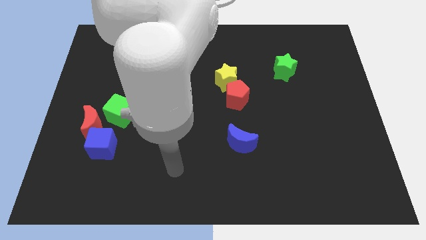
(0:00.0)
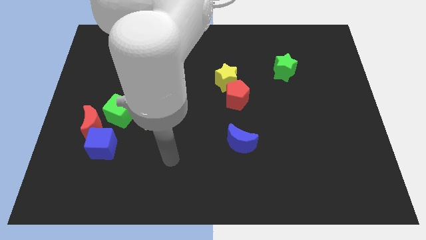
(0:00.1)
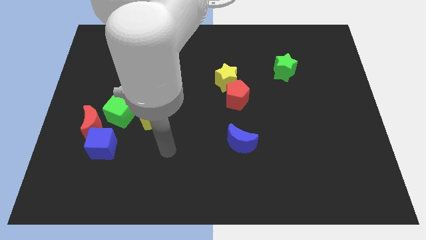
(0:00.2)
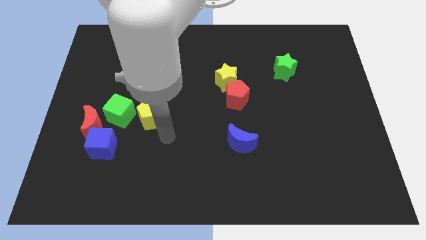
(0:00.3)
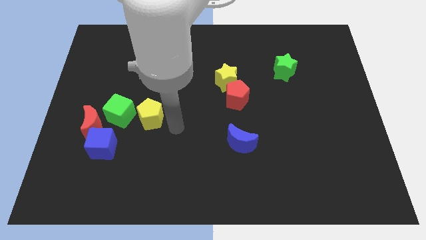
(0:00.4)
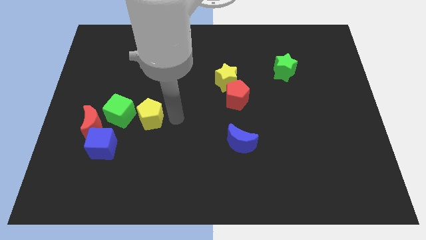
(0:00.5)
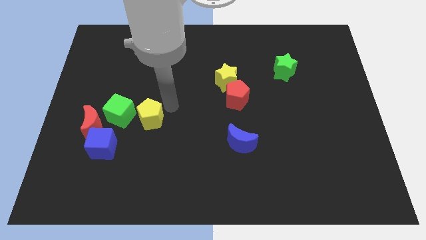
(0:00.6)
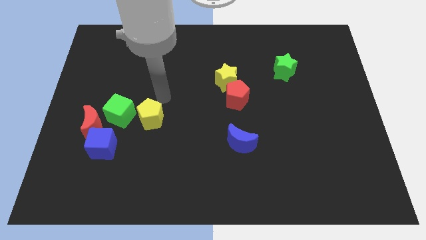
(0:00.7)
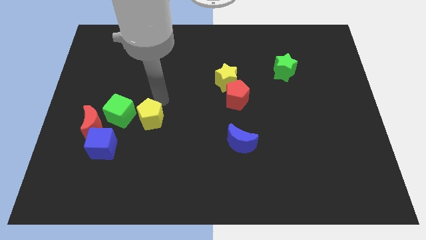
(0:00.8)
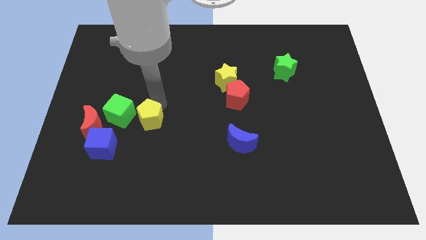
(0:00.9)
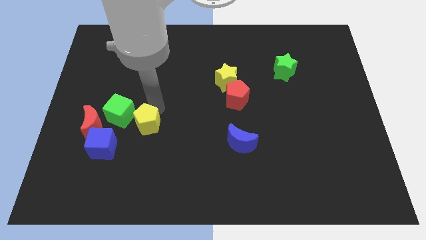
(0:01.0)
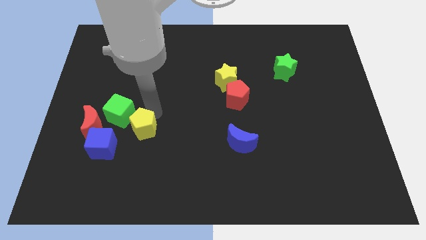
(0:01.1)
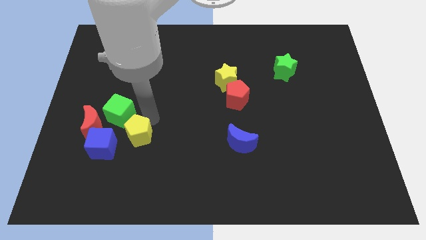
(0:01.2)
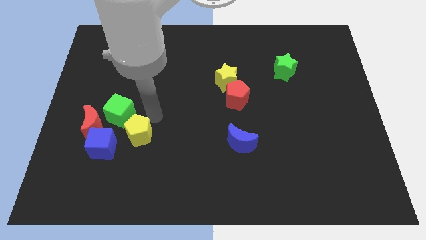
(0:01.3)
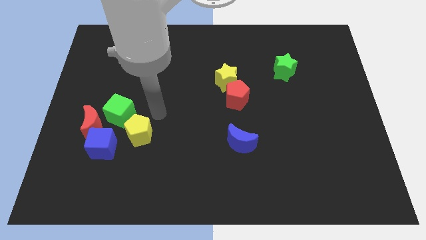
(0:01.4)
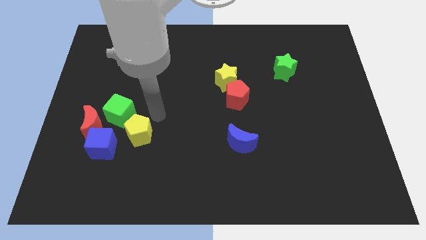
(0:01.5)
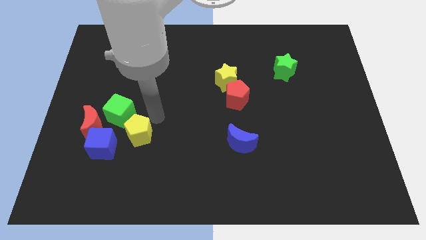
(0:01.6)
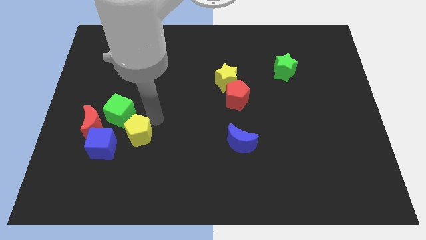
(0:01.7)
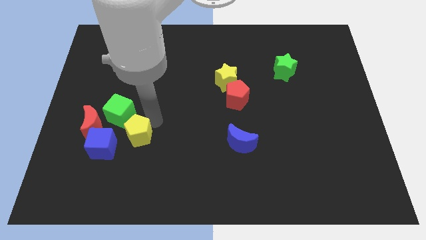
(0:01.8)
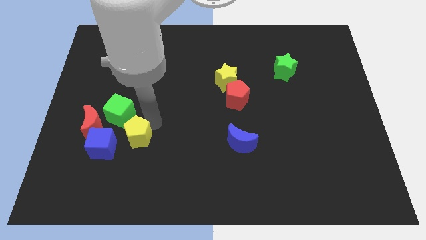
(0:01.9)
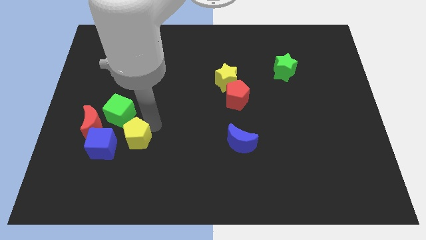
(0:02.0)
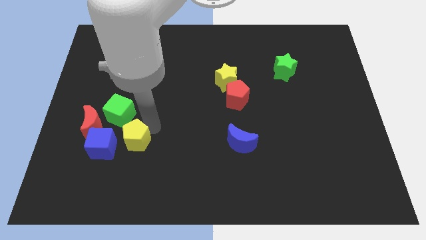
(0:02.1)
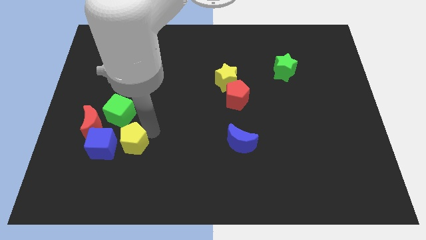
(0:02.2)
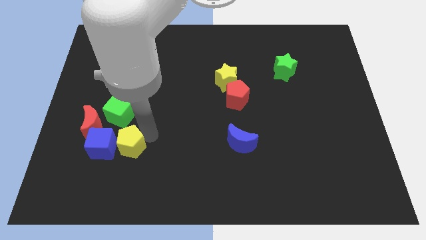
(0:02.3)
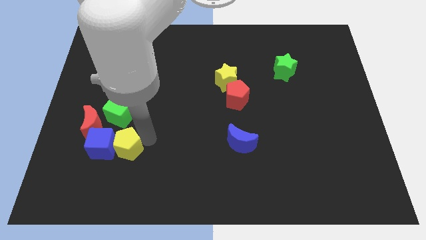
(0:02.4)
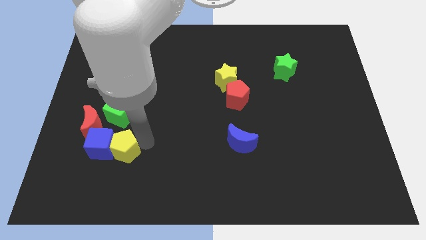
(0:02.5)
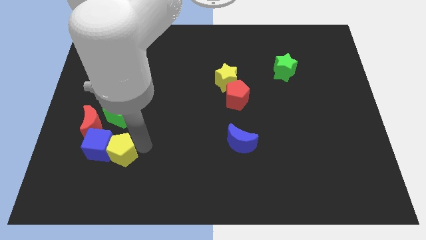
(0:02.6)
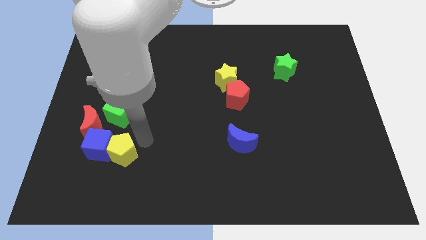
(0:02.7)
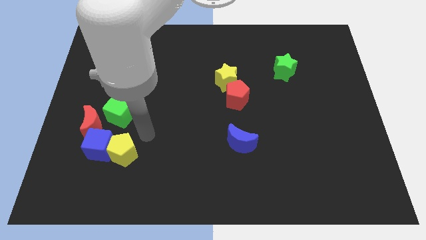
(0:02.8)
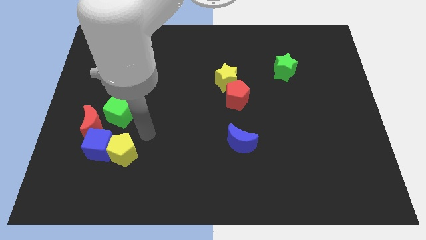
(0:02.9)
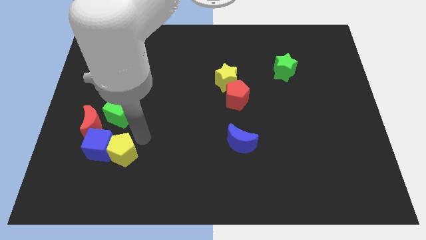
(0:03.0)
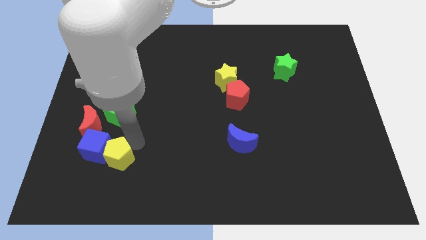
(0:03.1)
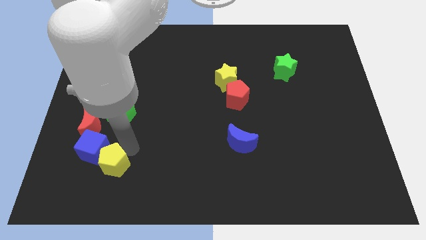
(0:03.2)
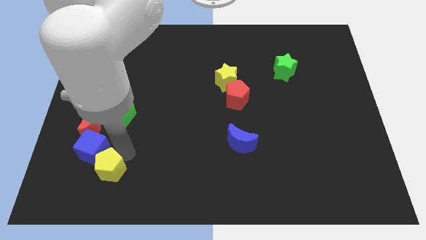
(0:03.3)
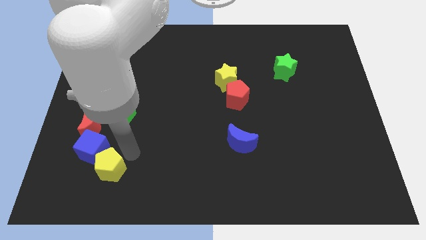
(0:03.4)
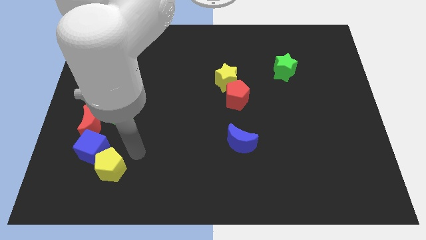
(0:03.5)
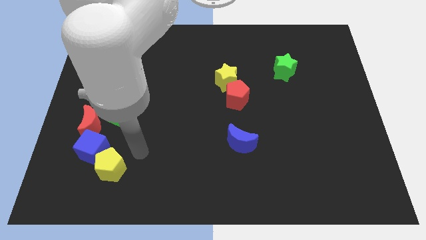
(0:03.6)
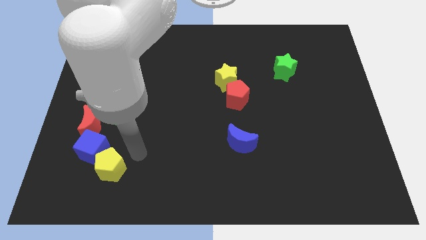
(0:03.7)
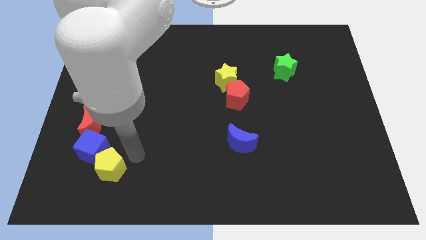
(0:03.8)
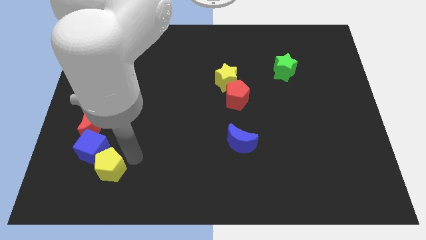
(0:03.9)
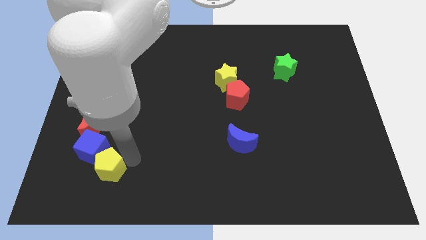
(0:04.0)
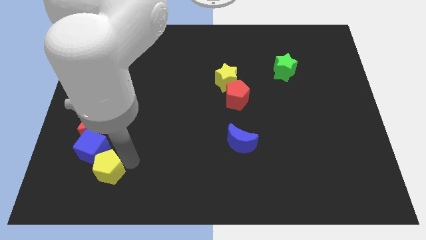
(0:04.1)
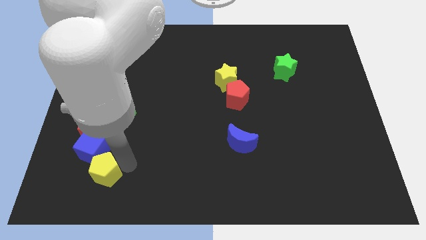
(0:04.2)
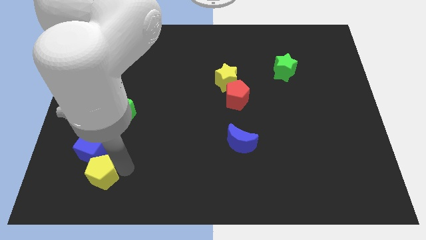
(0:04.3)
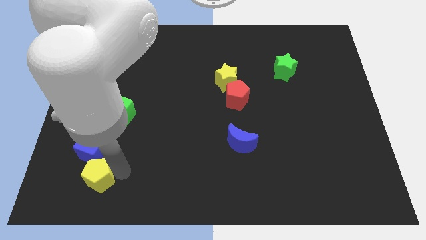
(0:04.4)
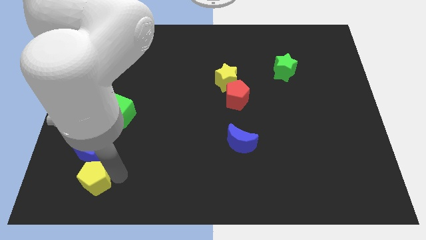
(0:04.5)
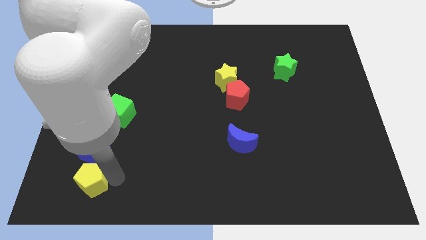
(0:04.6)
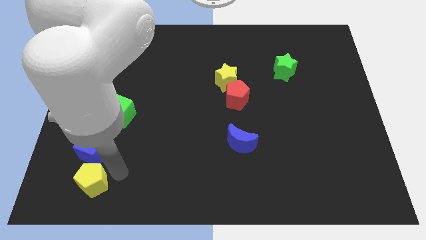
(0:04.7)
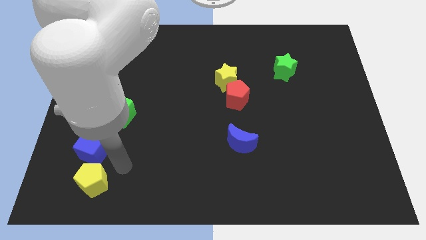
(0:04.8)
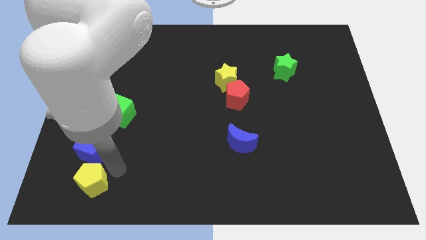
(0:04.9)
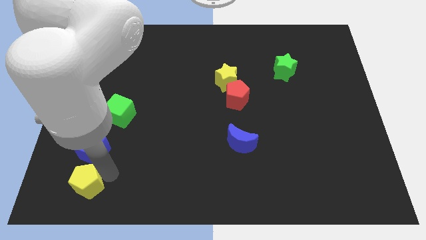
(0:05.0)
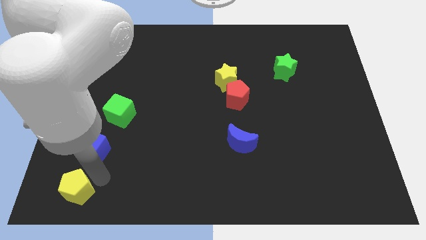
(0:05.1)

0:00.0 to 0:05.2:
move the yellow pentagon to the lower left corner
